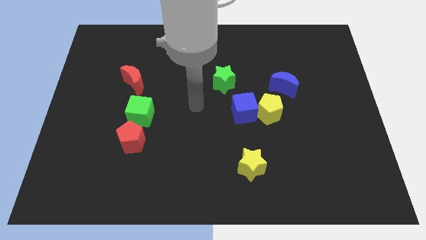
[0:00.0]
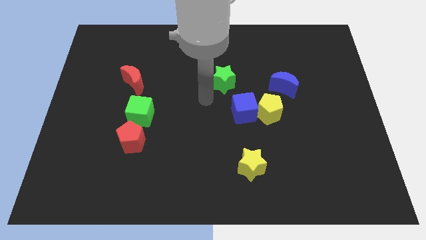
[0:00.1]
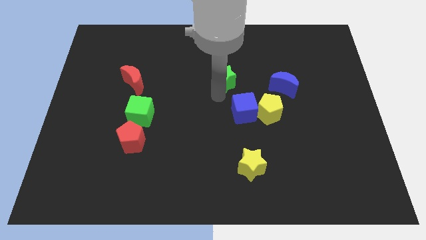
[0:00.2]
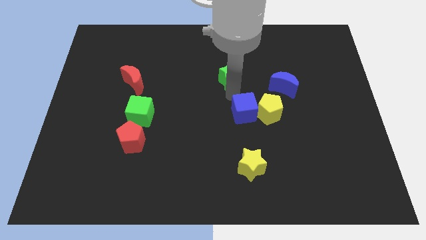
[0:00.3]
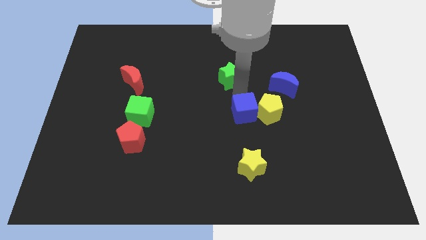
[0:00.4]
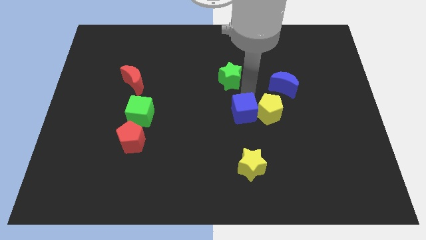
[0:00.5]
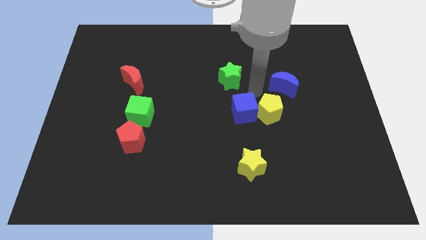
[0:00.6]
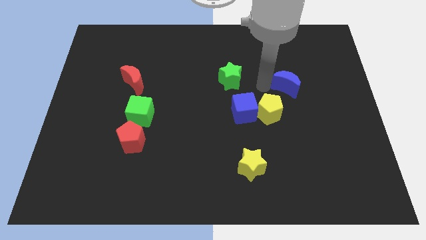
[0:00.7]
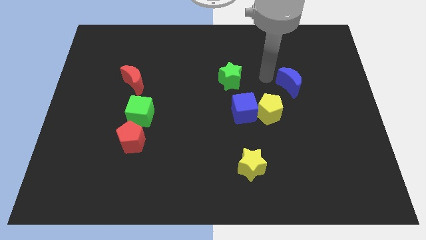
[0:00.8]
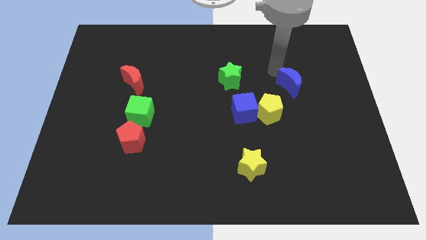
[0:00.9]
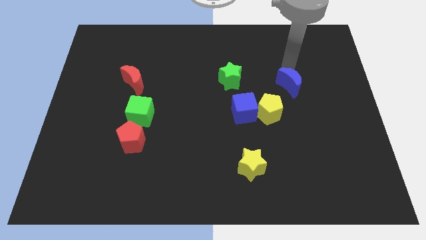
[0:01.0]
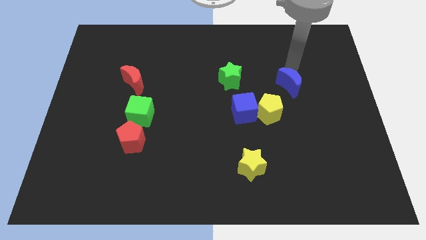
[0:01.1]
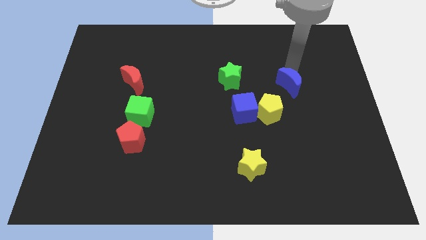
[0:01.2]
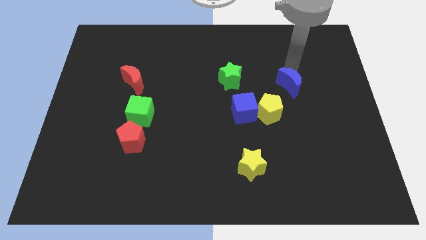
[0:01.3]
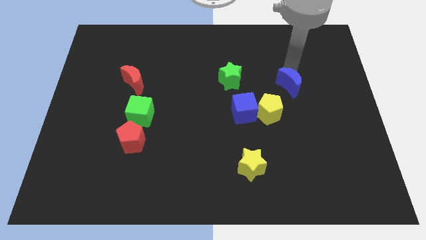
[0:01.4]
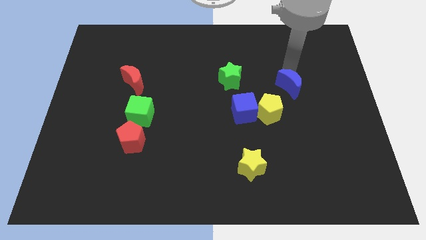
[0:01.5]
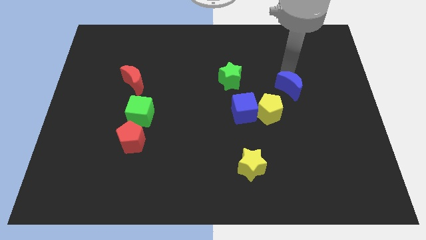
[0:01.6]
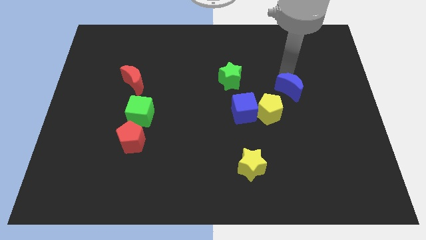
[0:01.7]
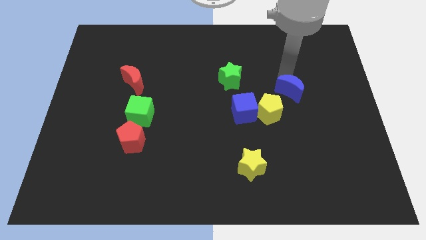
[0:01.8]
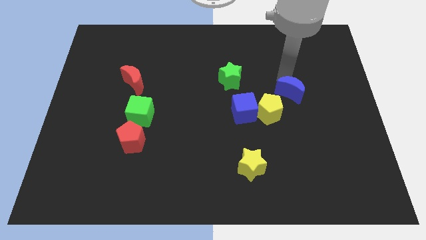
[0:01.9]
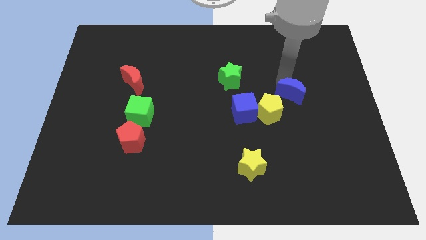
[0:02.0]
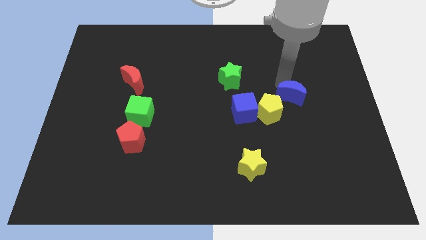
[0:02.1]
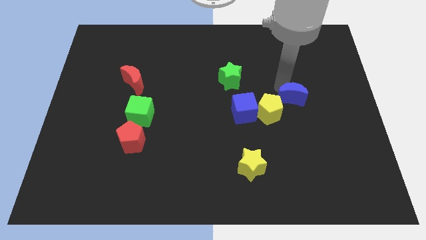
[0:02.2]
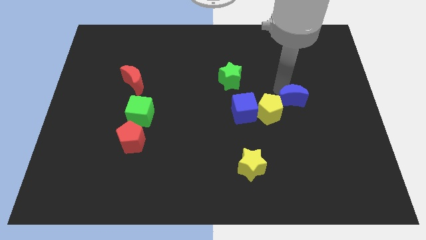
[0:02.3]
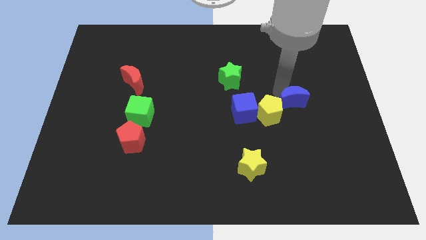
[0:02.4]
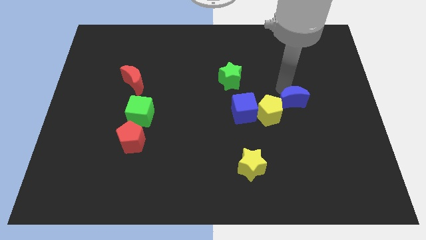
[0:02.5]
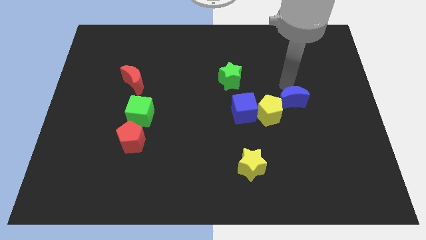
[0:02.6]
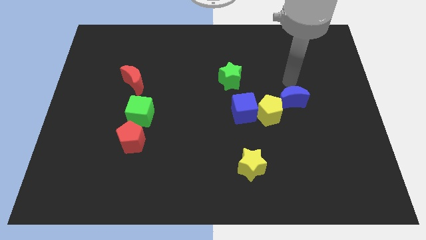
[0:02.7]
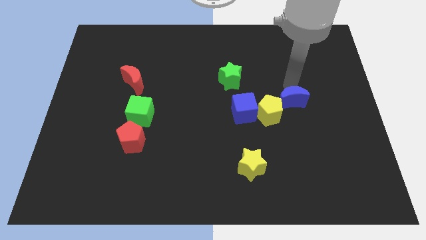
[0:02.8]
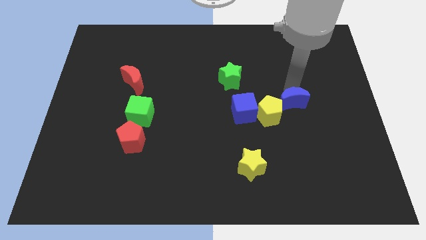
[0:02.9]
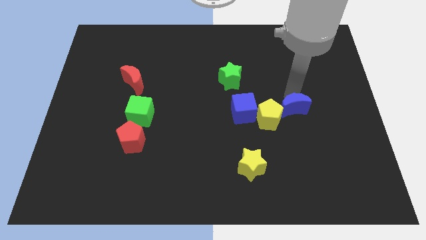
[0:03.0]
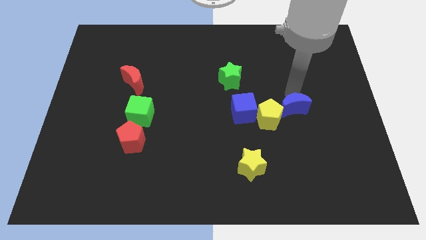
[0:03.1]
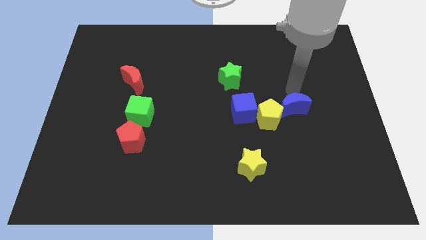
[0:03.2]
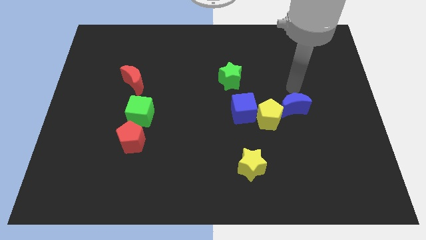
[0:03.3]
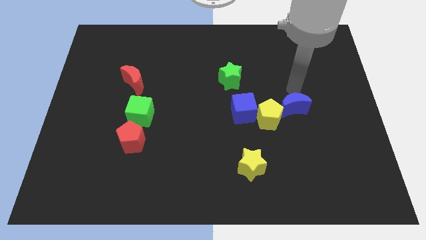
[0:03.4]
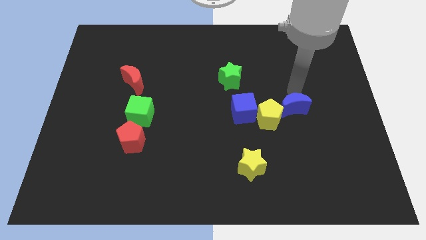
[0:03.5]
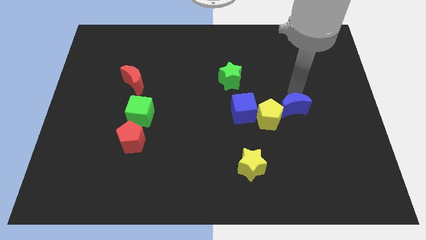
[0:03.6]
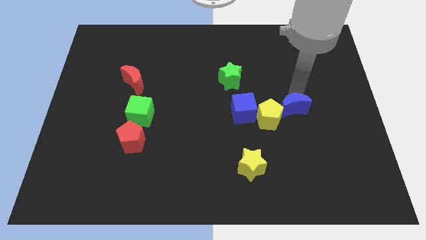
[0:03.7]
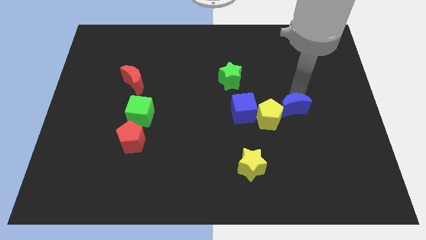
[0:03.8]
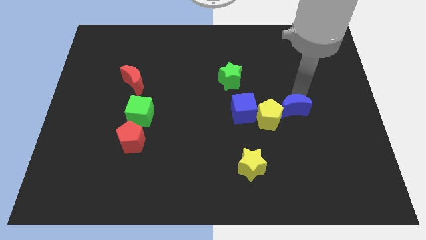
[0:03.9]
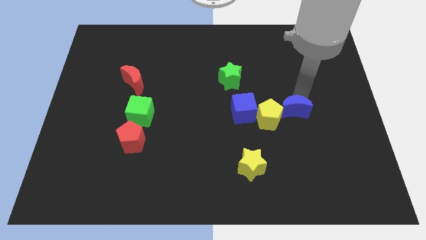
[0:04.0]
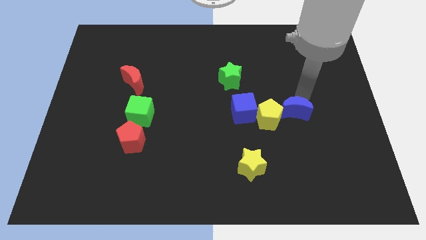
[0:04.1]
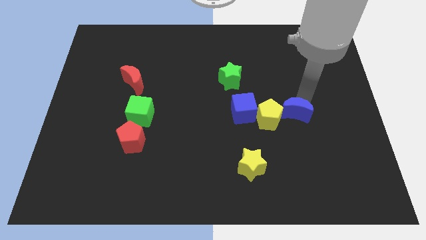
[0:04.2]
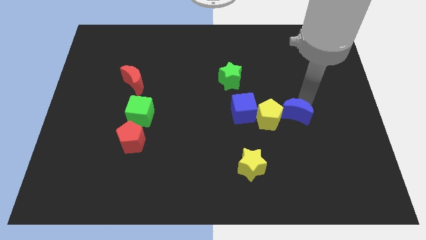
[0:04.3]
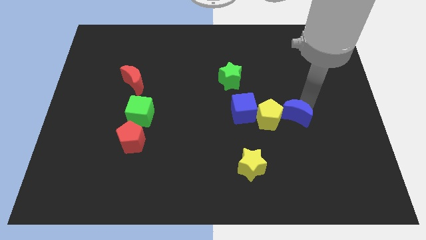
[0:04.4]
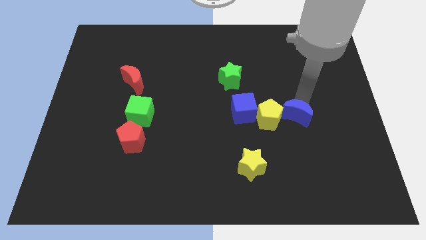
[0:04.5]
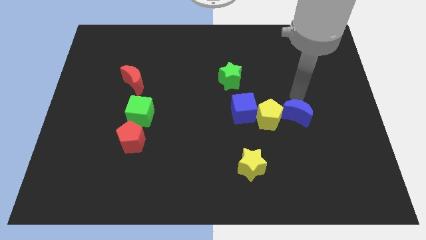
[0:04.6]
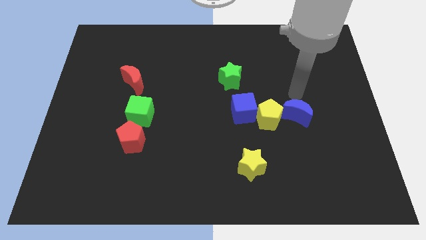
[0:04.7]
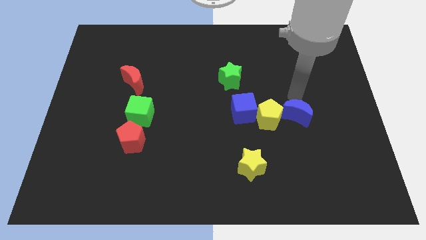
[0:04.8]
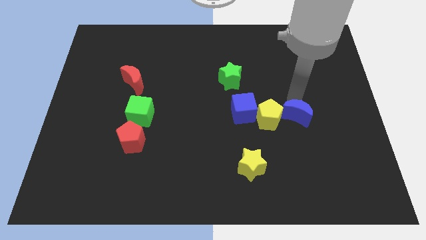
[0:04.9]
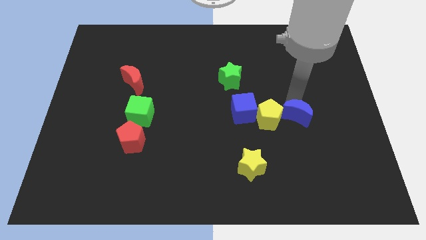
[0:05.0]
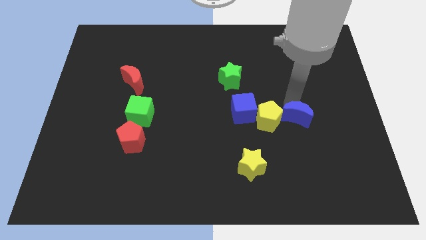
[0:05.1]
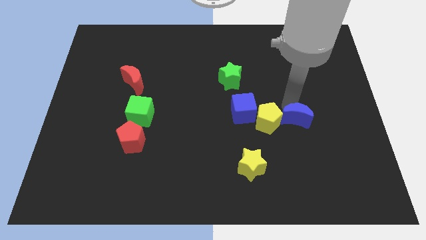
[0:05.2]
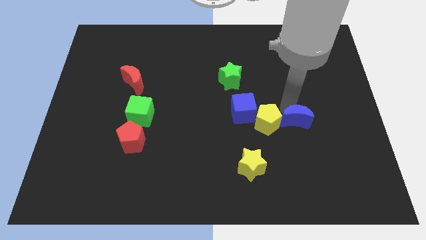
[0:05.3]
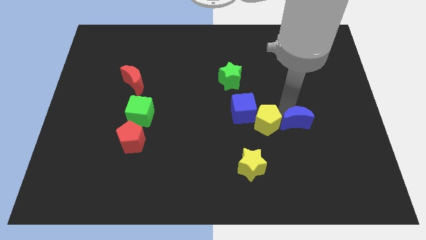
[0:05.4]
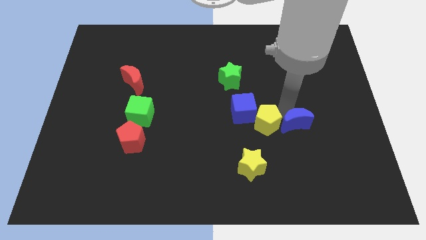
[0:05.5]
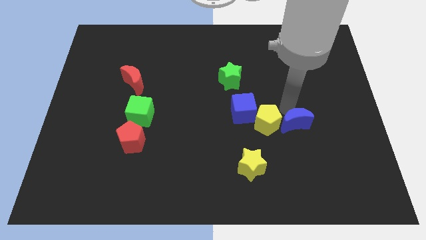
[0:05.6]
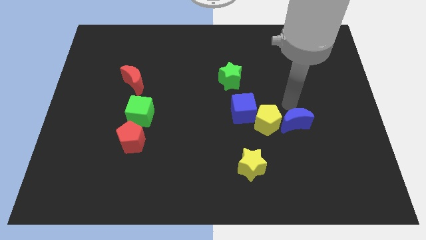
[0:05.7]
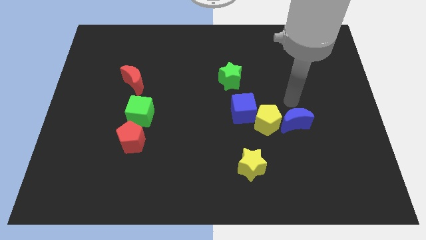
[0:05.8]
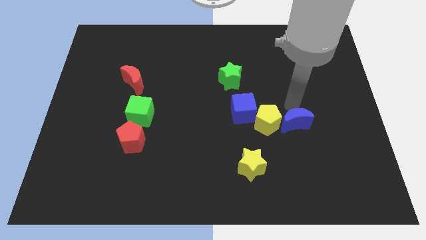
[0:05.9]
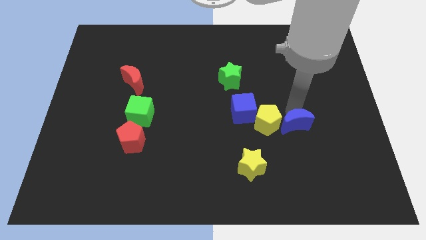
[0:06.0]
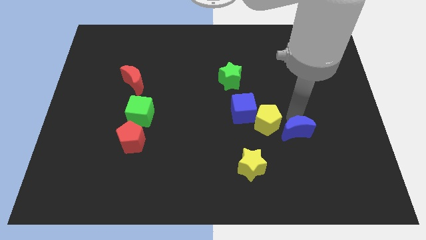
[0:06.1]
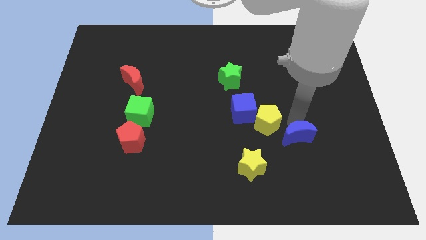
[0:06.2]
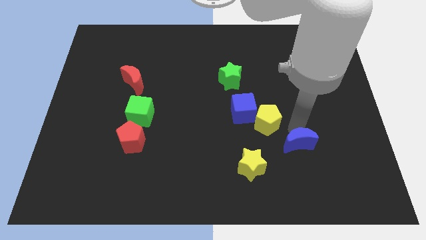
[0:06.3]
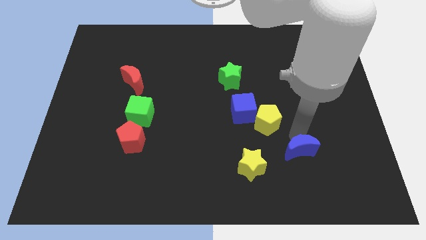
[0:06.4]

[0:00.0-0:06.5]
push the blue moon right of the yellow star

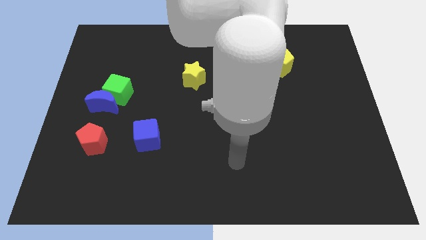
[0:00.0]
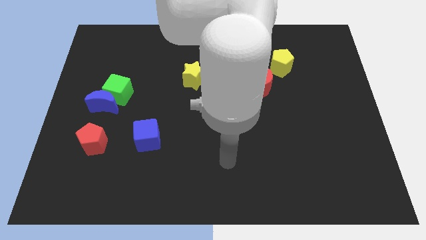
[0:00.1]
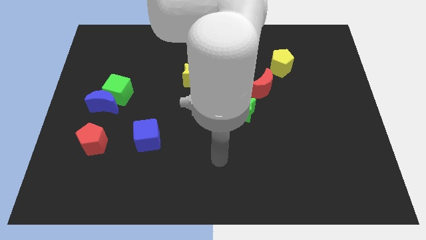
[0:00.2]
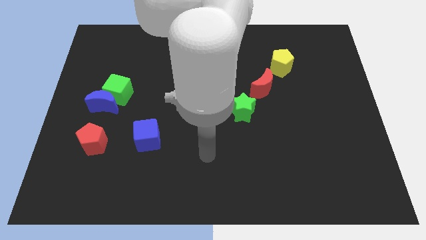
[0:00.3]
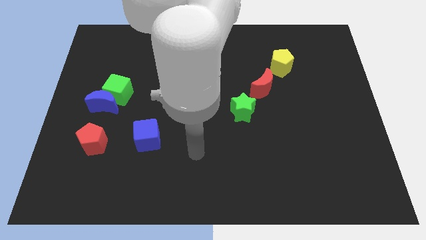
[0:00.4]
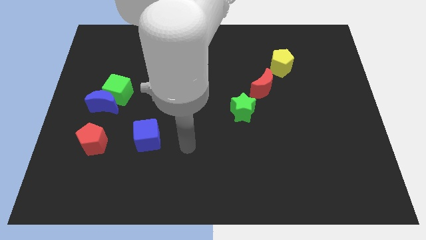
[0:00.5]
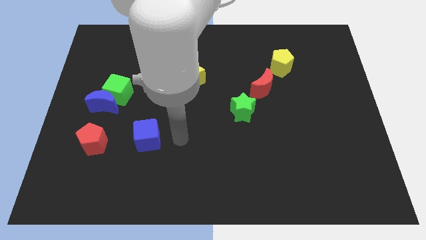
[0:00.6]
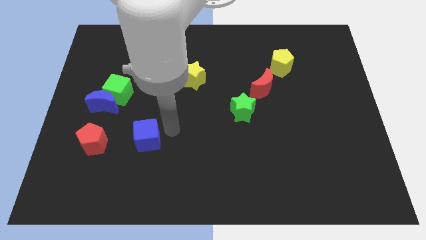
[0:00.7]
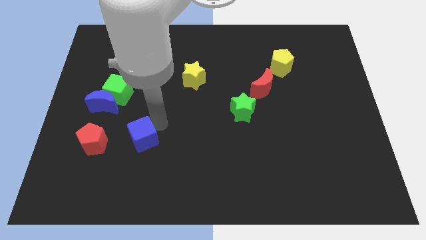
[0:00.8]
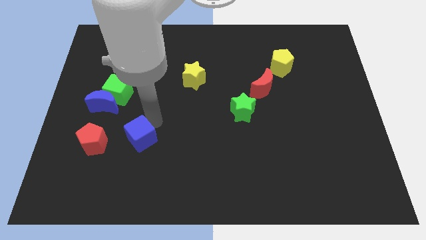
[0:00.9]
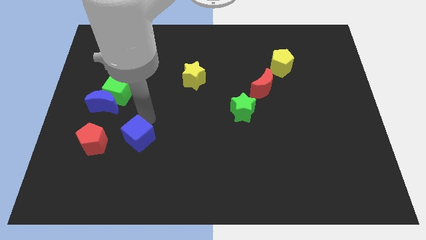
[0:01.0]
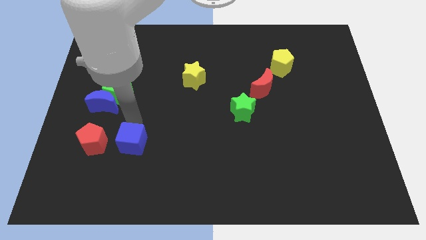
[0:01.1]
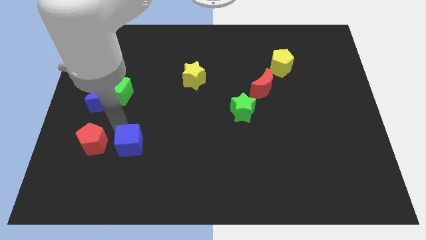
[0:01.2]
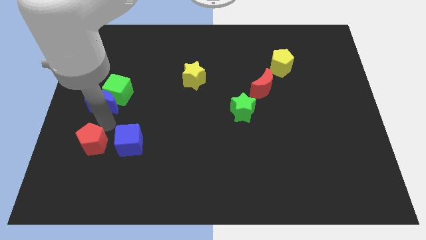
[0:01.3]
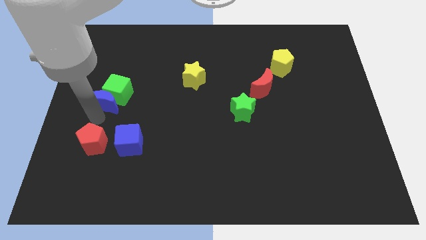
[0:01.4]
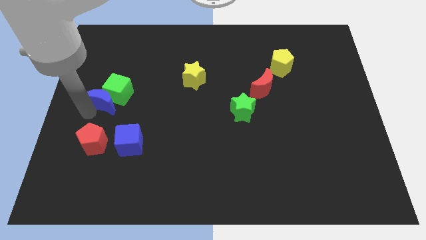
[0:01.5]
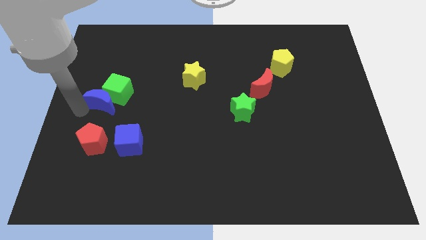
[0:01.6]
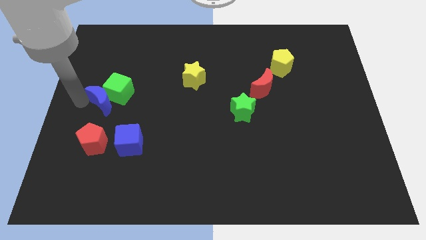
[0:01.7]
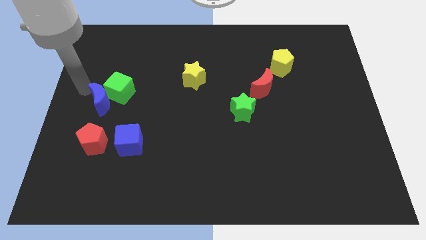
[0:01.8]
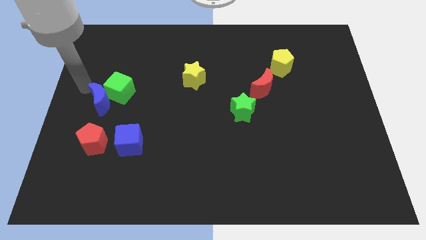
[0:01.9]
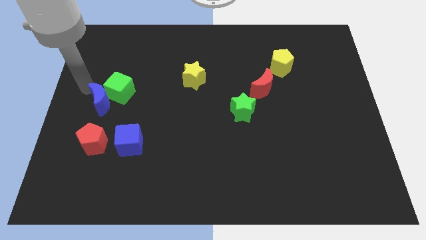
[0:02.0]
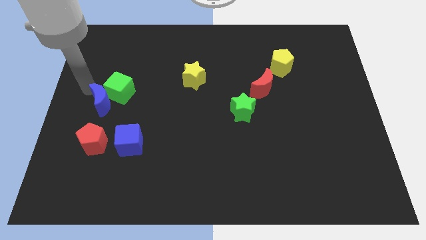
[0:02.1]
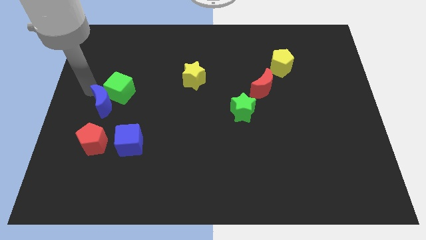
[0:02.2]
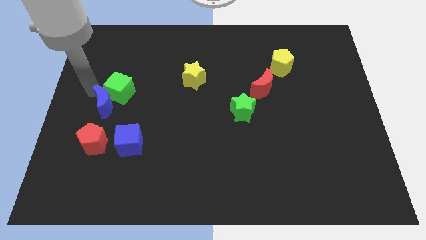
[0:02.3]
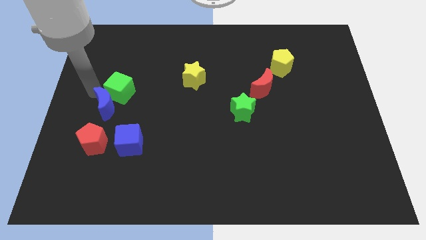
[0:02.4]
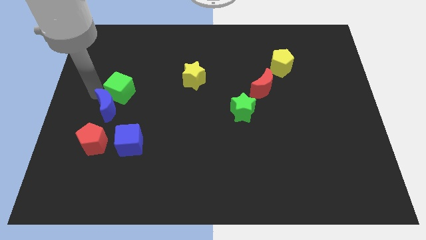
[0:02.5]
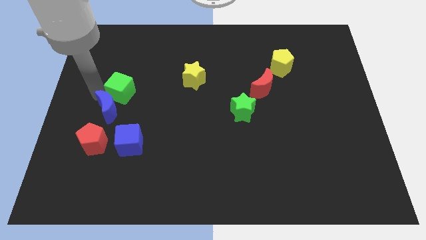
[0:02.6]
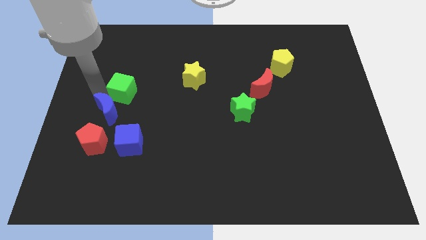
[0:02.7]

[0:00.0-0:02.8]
slide the blue moon to the top right side of the red pentagon
